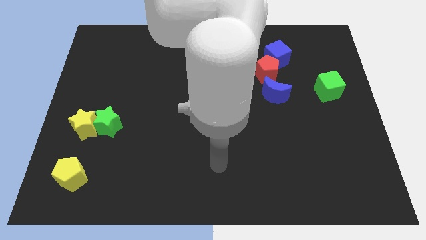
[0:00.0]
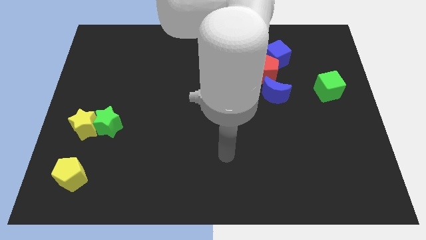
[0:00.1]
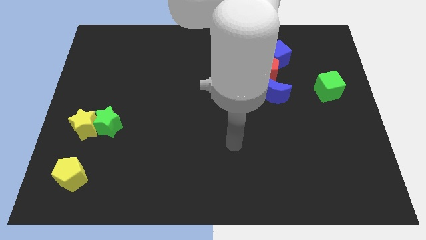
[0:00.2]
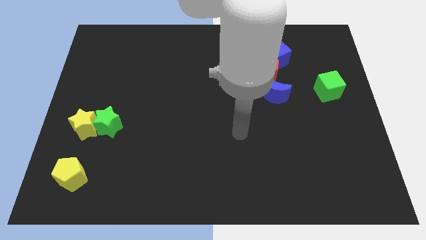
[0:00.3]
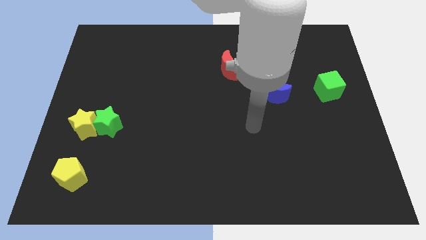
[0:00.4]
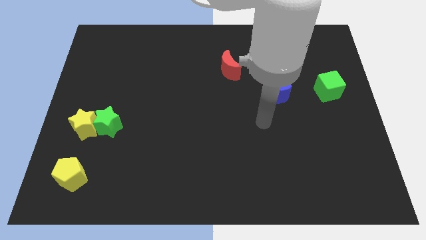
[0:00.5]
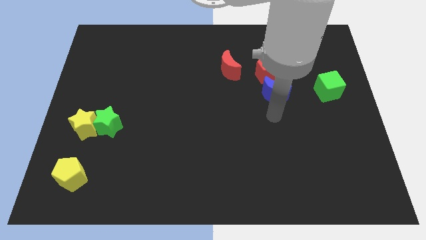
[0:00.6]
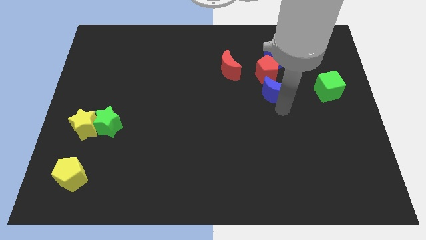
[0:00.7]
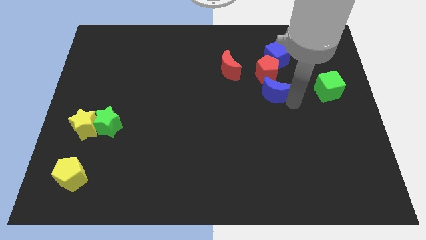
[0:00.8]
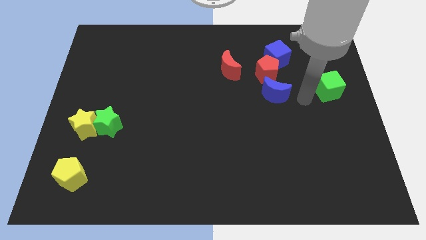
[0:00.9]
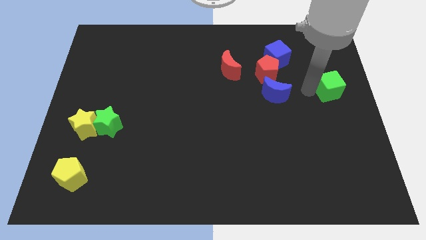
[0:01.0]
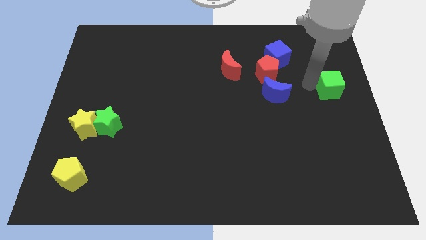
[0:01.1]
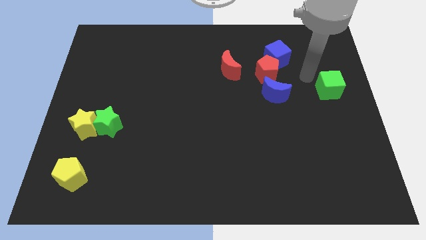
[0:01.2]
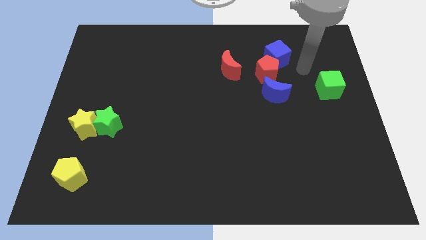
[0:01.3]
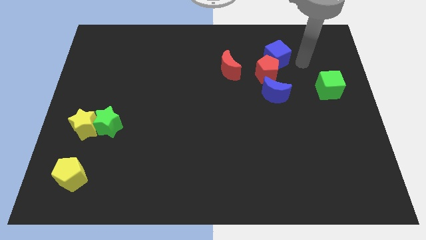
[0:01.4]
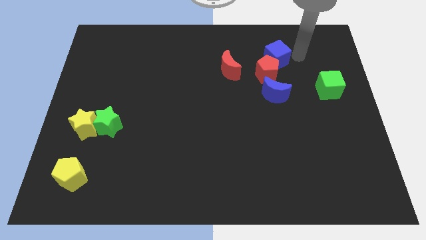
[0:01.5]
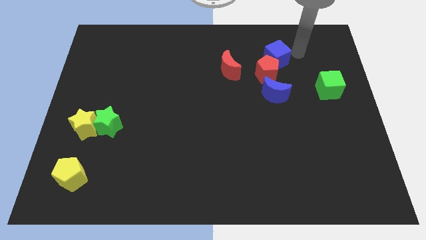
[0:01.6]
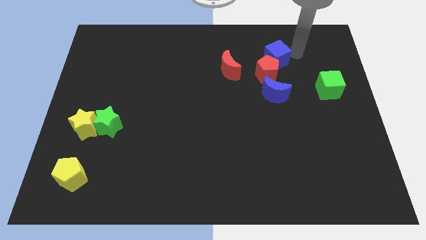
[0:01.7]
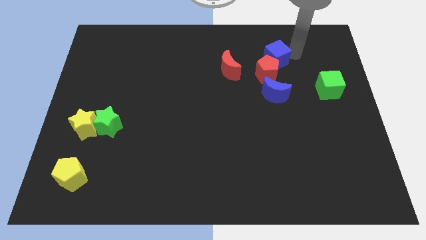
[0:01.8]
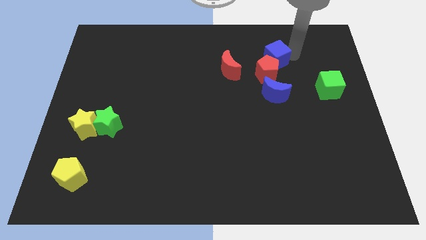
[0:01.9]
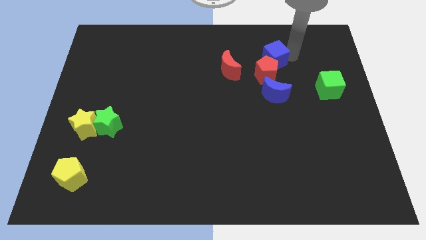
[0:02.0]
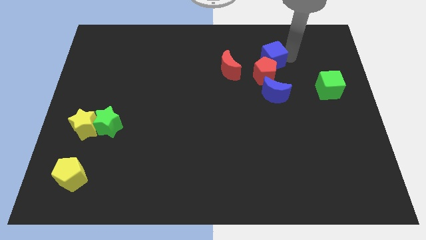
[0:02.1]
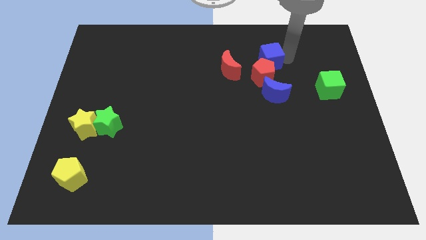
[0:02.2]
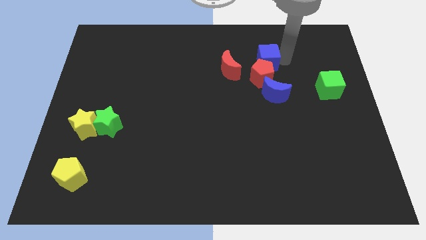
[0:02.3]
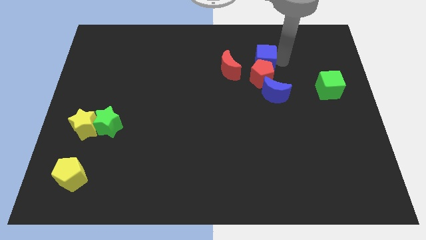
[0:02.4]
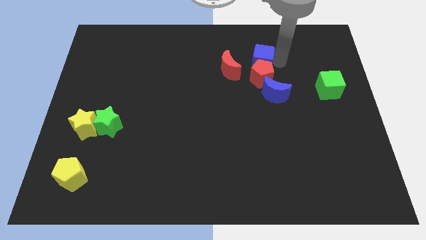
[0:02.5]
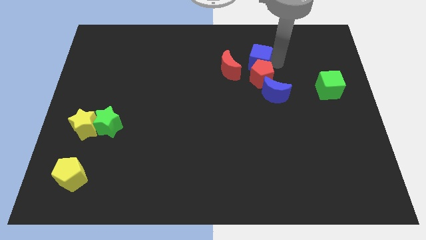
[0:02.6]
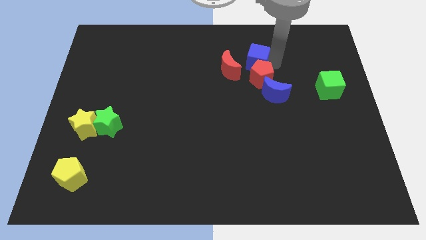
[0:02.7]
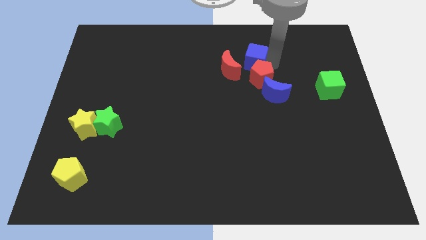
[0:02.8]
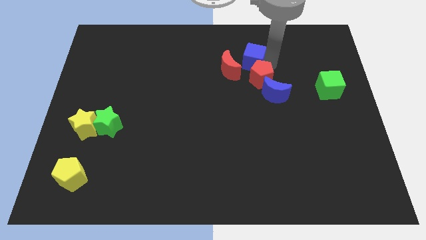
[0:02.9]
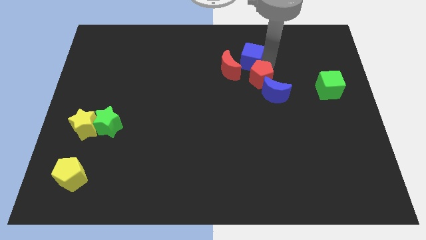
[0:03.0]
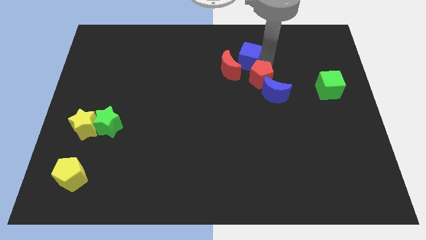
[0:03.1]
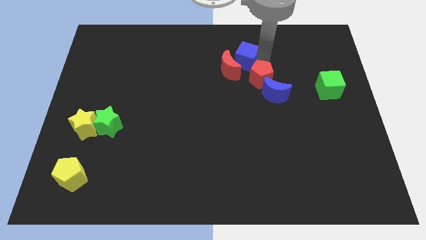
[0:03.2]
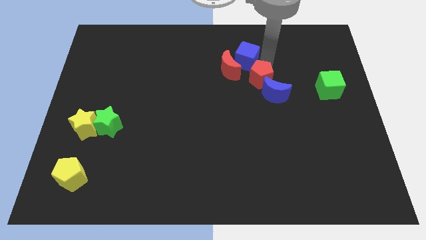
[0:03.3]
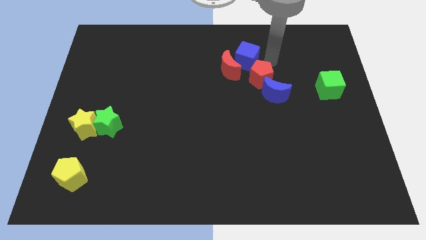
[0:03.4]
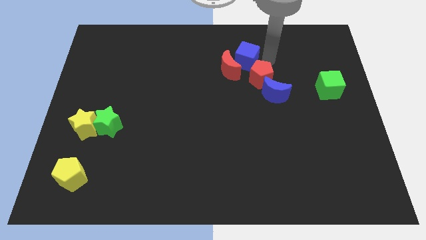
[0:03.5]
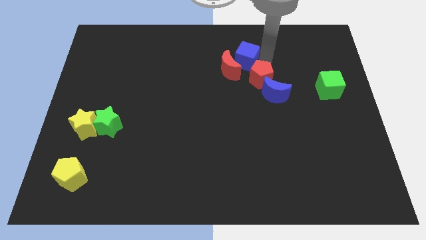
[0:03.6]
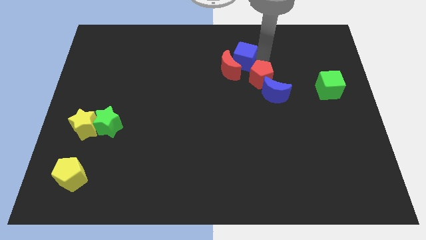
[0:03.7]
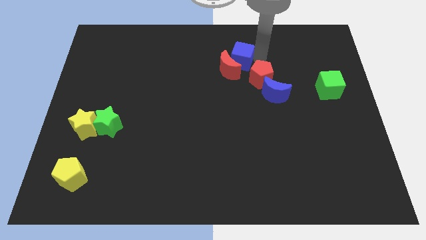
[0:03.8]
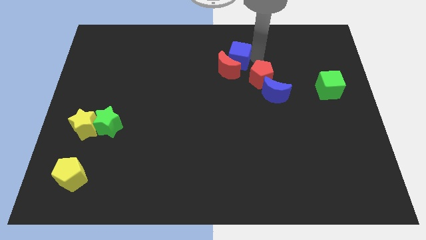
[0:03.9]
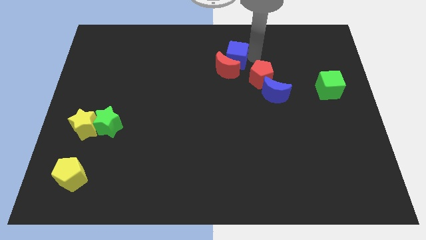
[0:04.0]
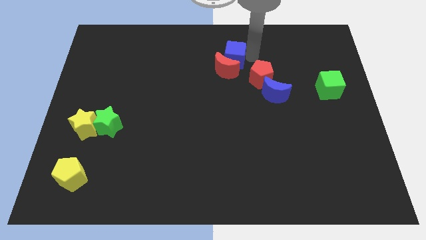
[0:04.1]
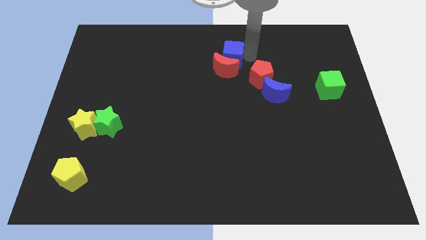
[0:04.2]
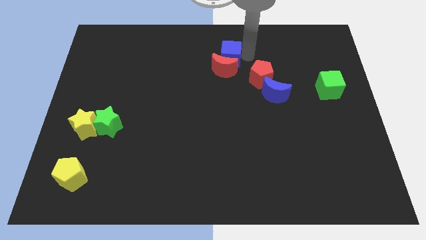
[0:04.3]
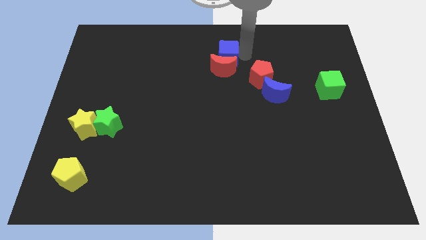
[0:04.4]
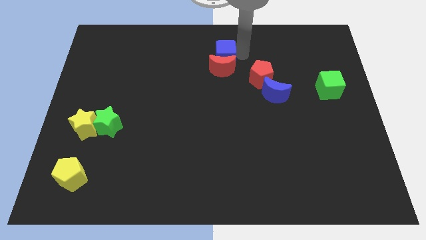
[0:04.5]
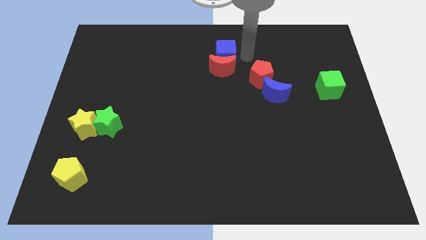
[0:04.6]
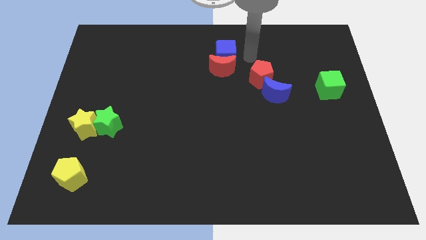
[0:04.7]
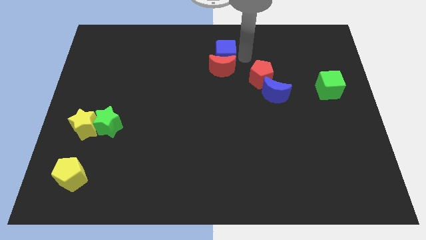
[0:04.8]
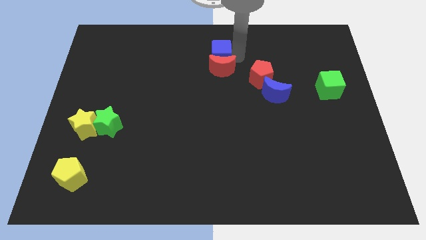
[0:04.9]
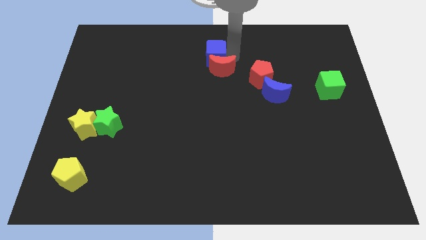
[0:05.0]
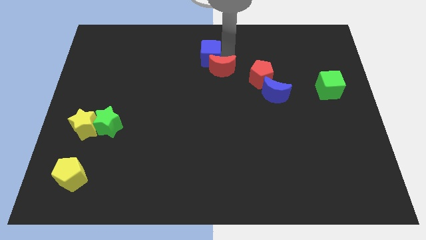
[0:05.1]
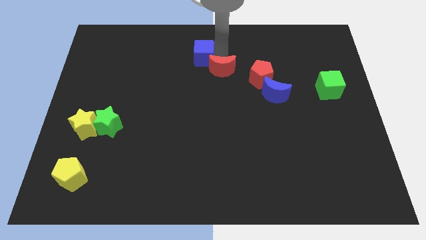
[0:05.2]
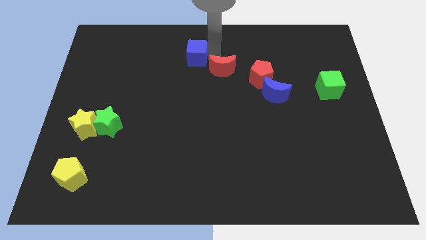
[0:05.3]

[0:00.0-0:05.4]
move the blue cube left

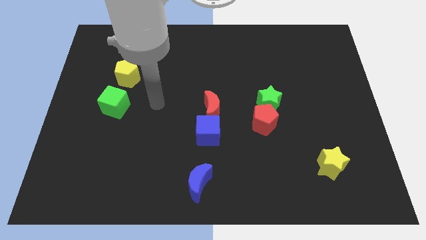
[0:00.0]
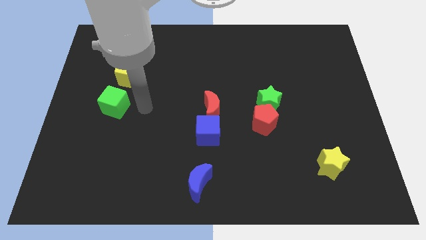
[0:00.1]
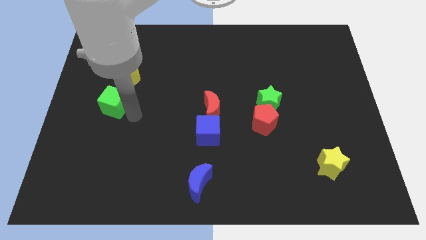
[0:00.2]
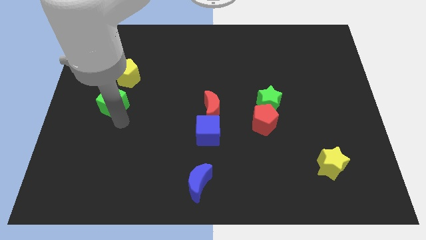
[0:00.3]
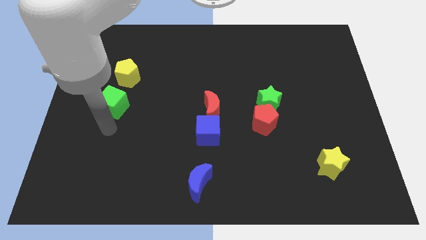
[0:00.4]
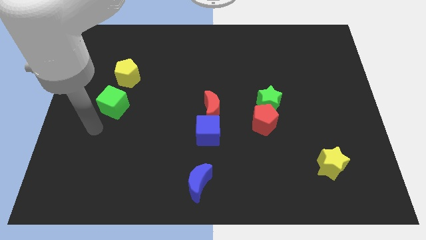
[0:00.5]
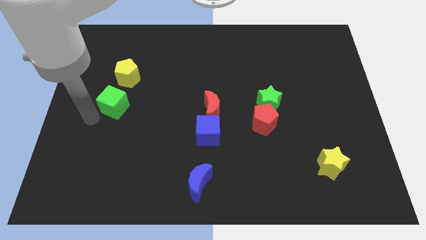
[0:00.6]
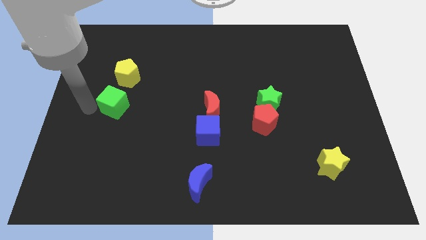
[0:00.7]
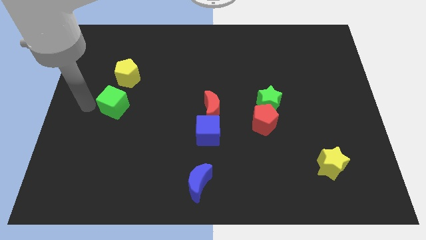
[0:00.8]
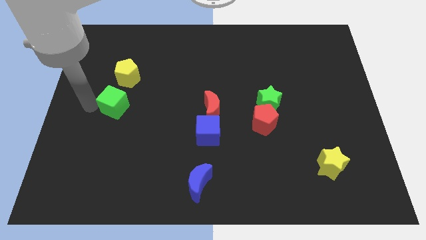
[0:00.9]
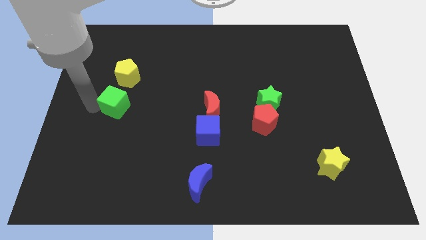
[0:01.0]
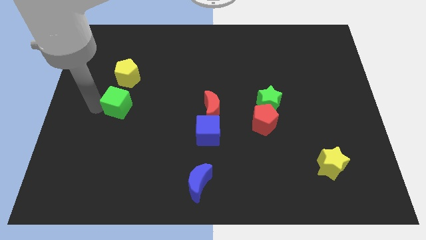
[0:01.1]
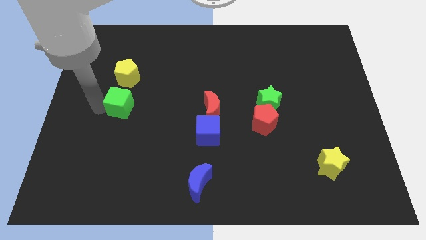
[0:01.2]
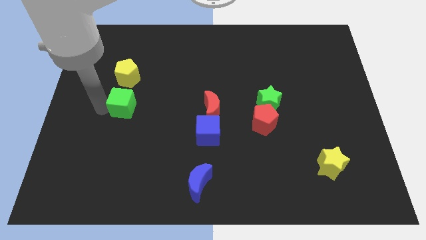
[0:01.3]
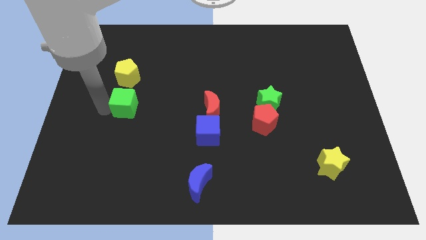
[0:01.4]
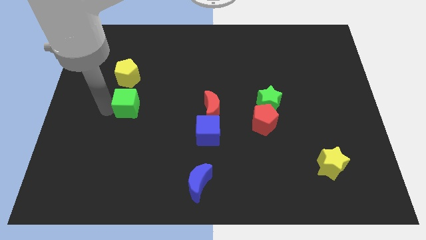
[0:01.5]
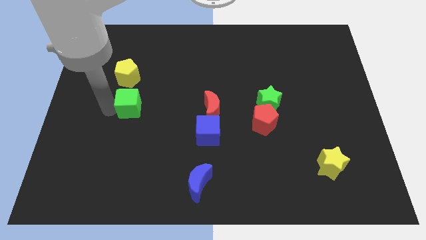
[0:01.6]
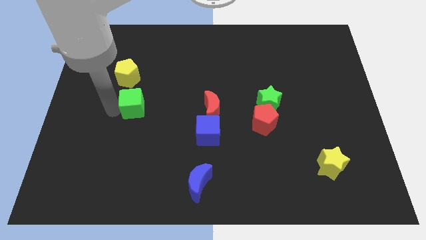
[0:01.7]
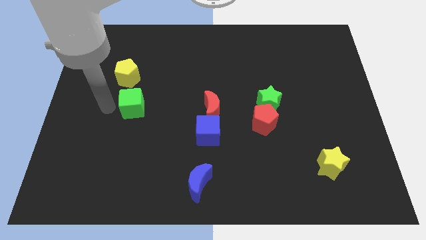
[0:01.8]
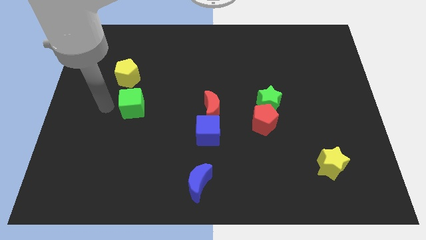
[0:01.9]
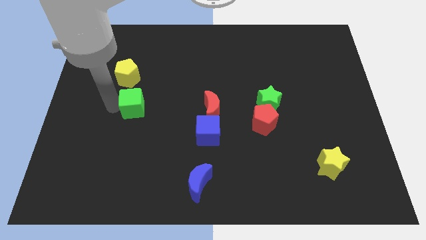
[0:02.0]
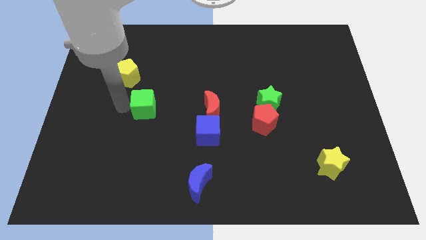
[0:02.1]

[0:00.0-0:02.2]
move the green cube to the right a little bit

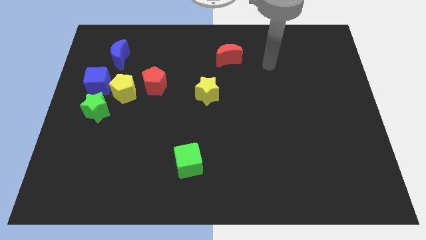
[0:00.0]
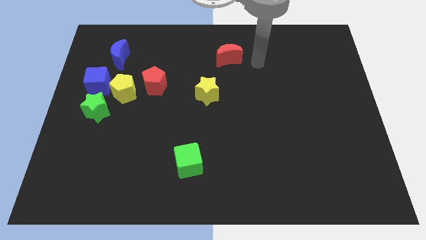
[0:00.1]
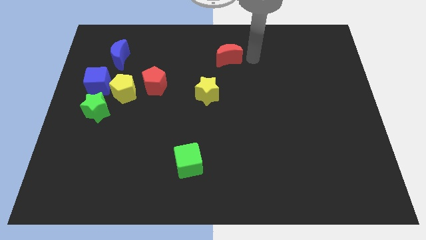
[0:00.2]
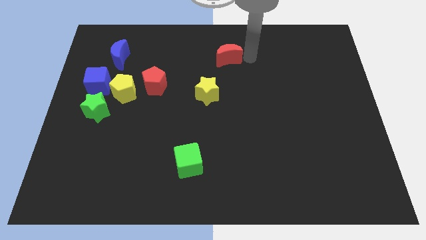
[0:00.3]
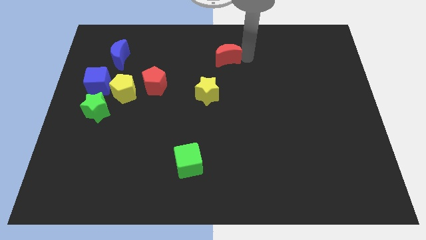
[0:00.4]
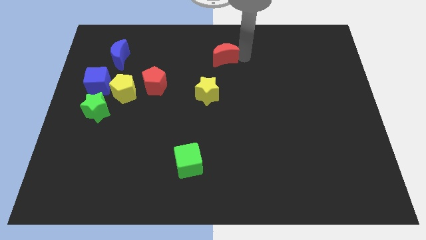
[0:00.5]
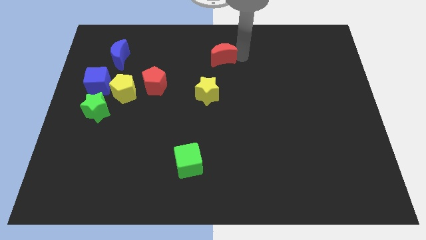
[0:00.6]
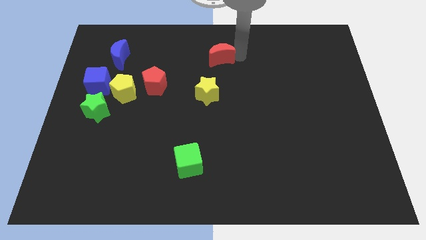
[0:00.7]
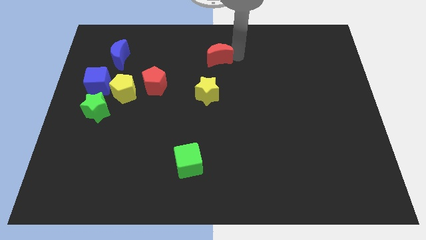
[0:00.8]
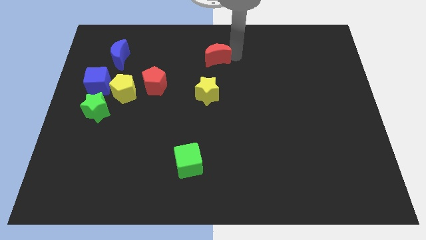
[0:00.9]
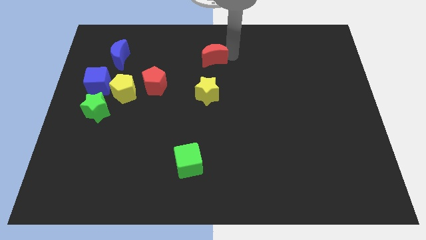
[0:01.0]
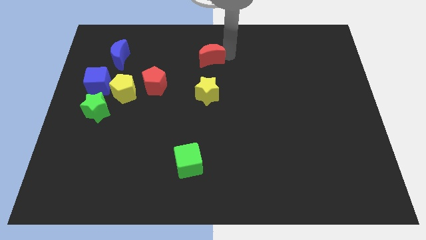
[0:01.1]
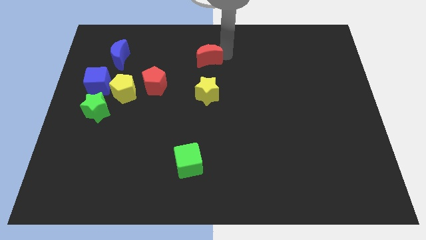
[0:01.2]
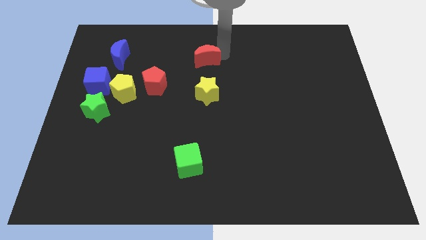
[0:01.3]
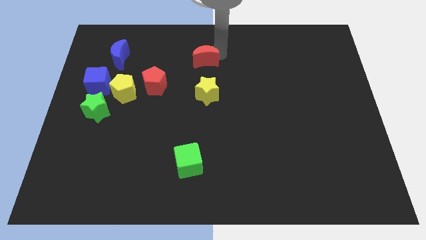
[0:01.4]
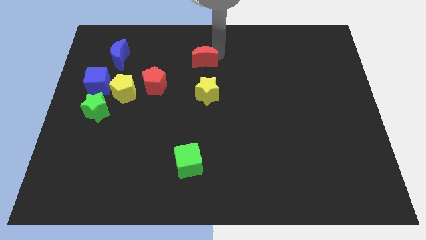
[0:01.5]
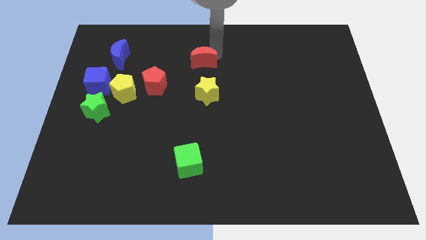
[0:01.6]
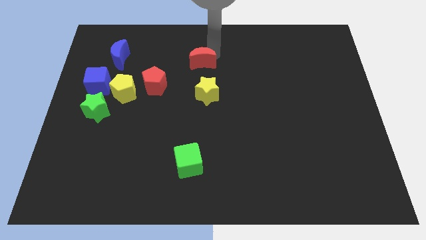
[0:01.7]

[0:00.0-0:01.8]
slightly move the red moon to the left
